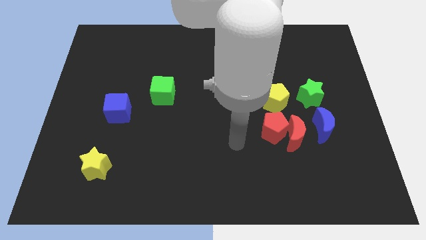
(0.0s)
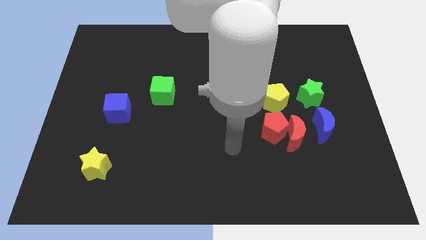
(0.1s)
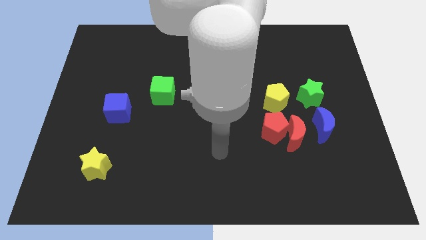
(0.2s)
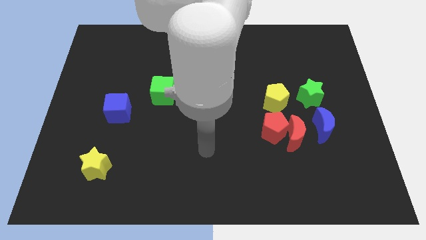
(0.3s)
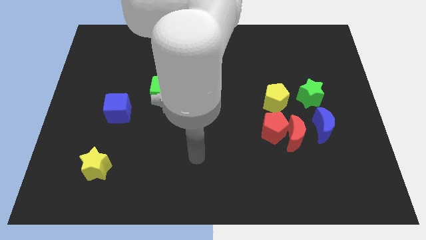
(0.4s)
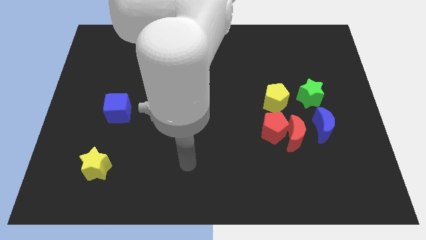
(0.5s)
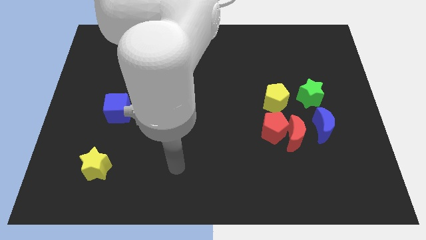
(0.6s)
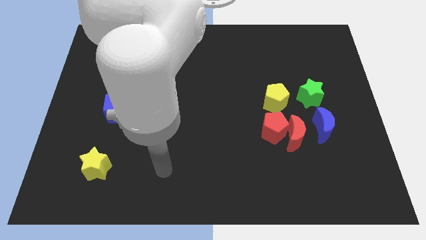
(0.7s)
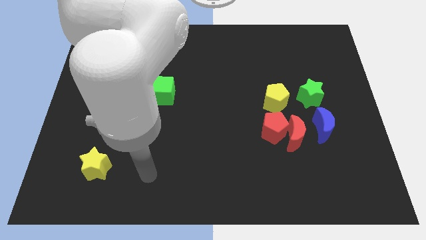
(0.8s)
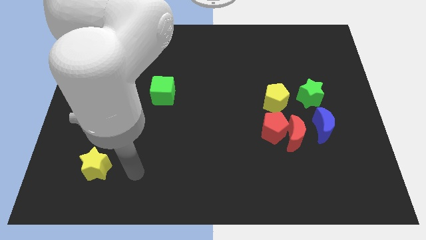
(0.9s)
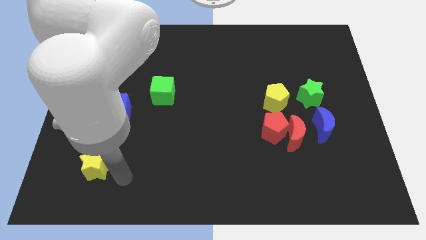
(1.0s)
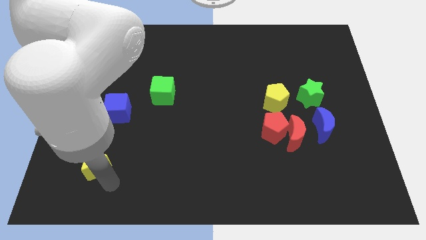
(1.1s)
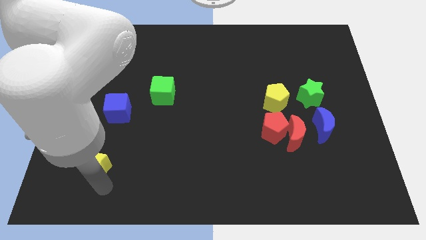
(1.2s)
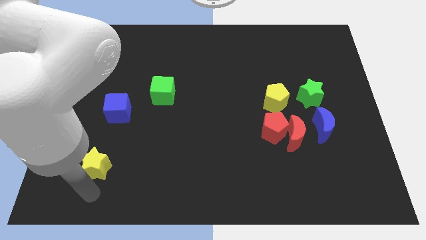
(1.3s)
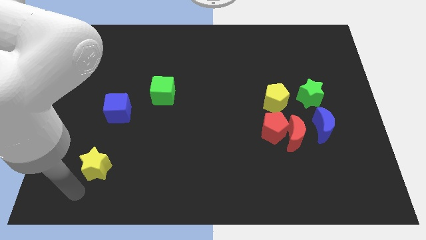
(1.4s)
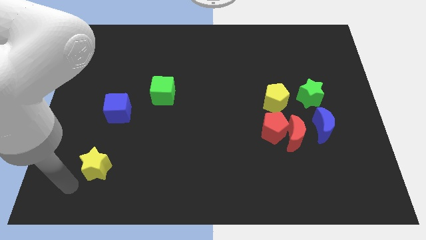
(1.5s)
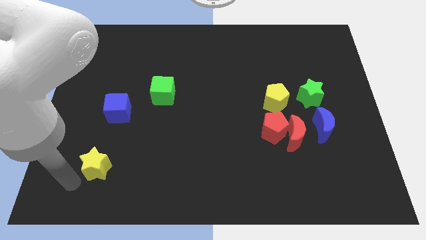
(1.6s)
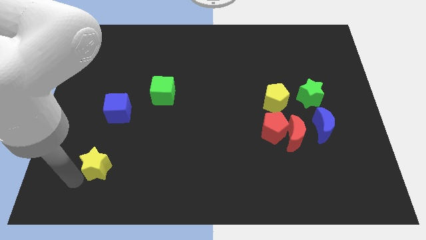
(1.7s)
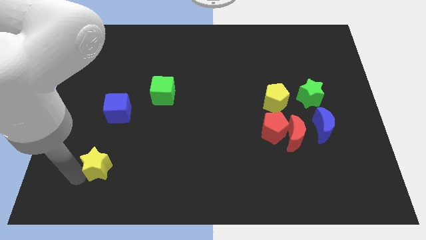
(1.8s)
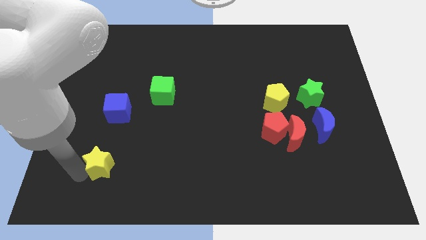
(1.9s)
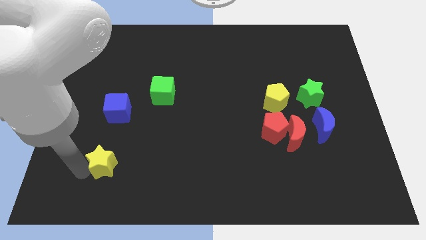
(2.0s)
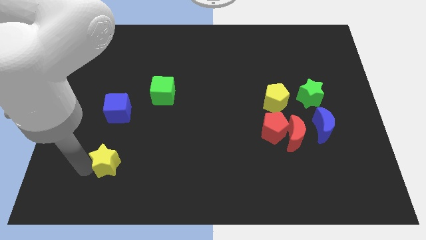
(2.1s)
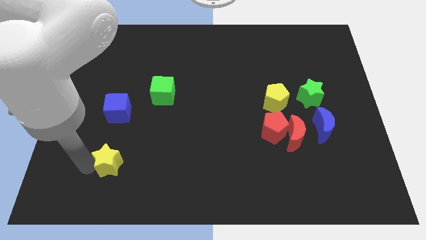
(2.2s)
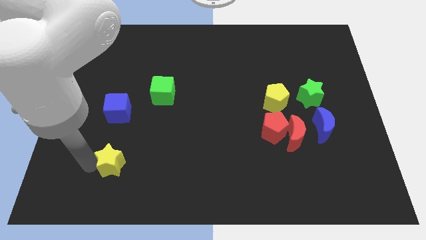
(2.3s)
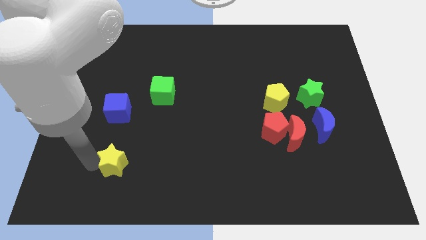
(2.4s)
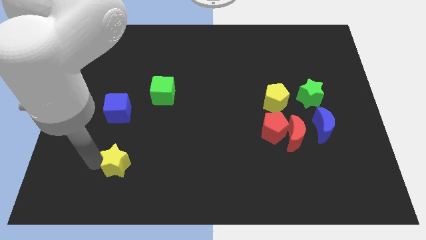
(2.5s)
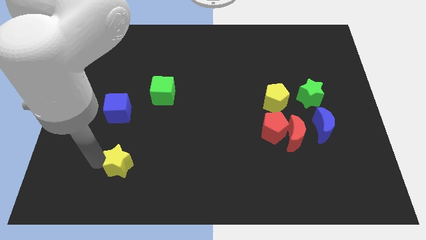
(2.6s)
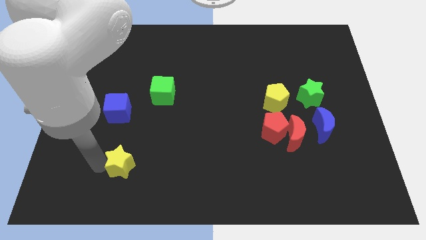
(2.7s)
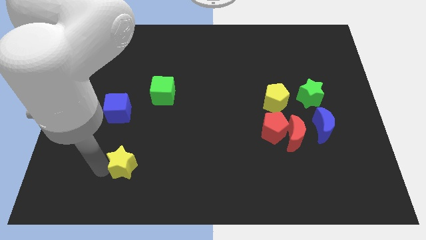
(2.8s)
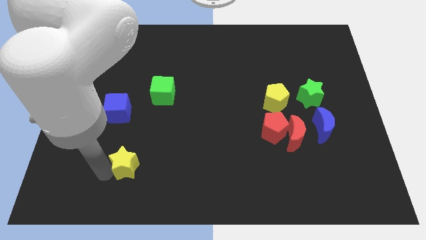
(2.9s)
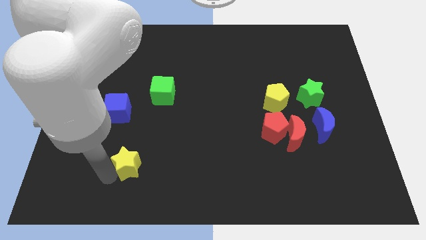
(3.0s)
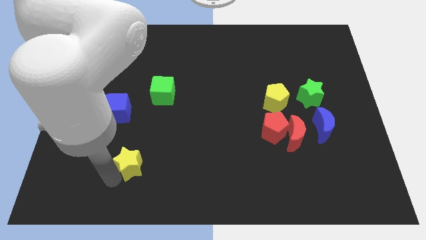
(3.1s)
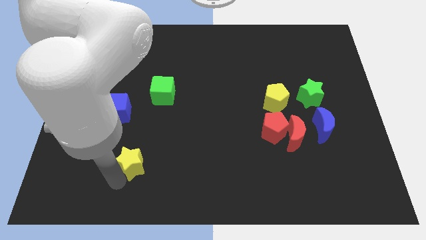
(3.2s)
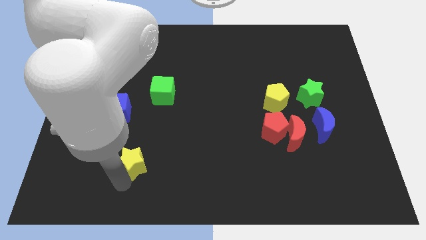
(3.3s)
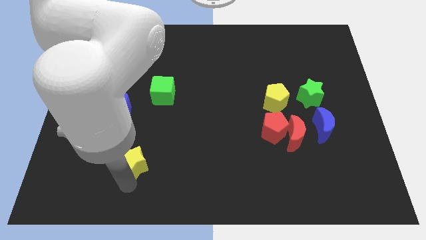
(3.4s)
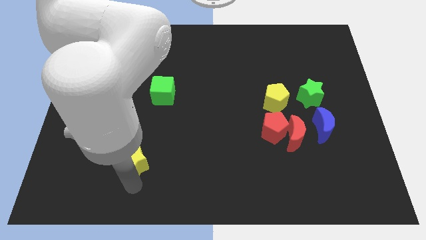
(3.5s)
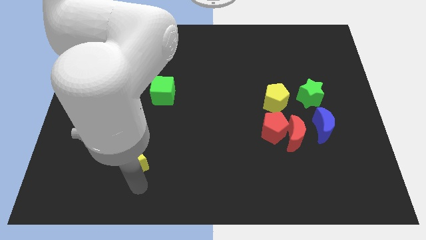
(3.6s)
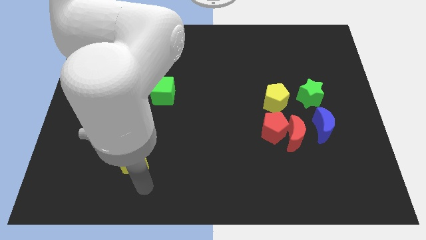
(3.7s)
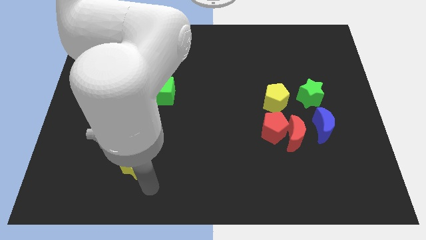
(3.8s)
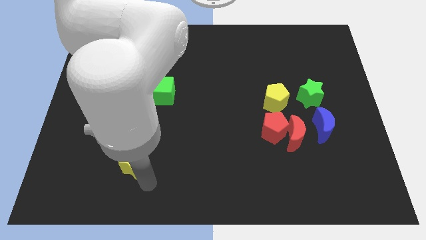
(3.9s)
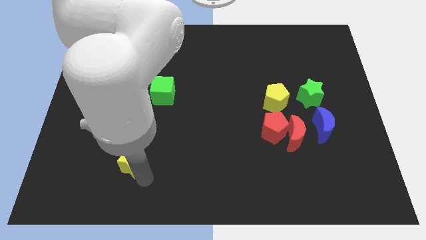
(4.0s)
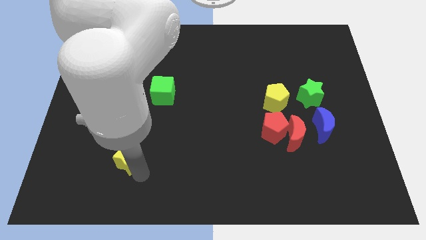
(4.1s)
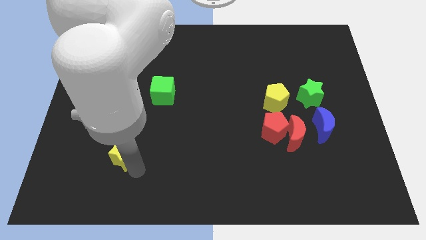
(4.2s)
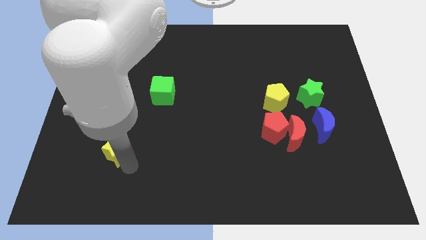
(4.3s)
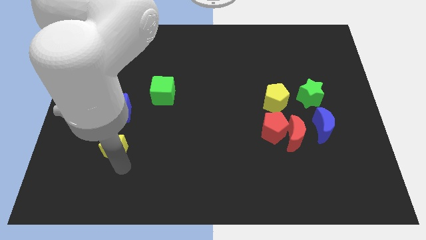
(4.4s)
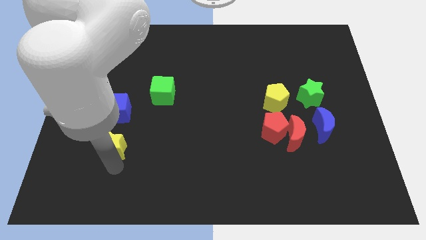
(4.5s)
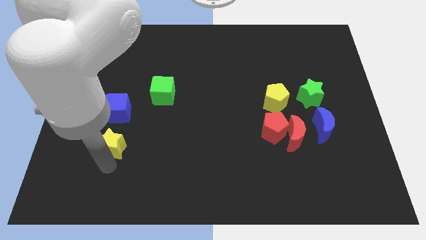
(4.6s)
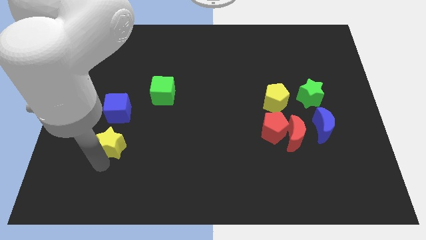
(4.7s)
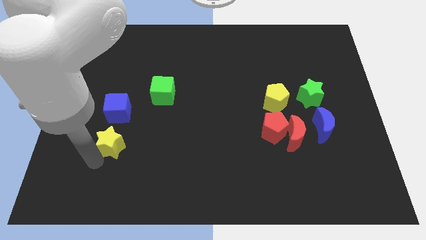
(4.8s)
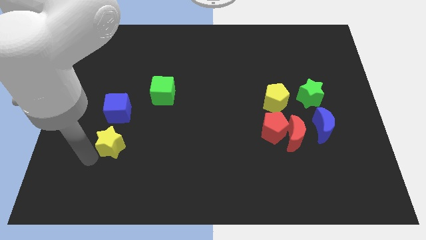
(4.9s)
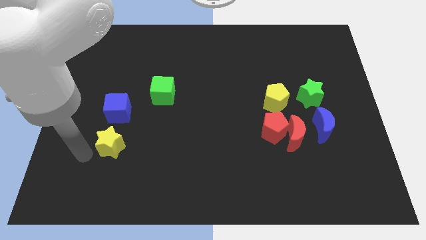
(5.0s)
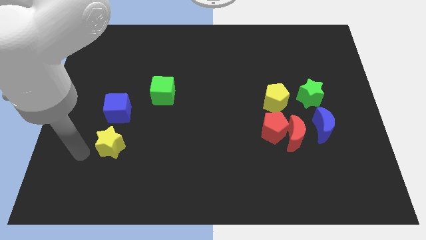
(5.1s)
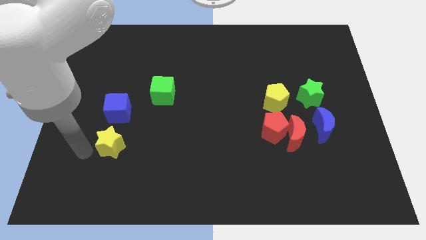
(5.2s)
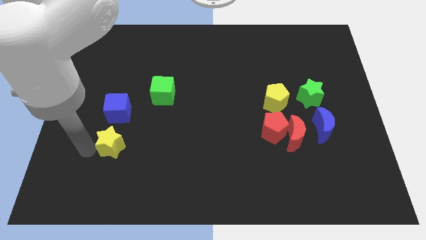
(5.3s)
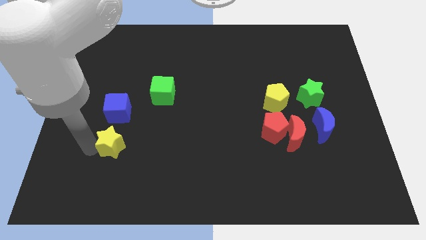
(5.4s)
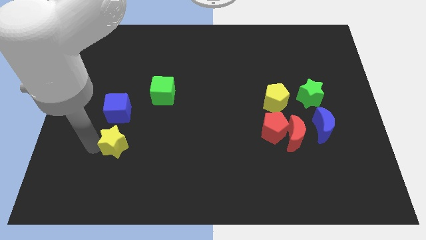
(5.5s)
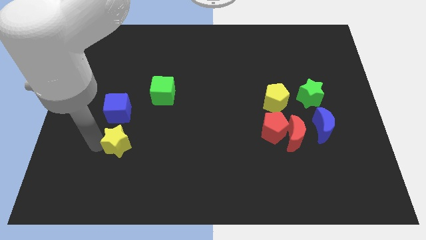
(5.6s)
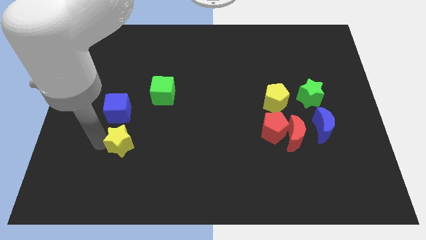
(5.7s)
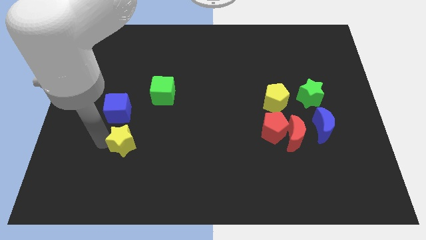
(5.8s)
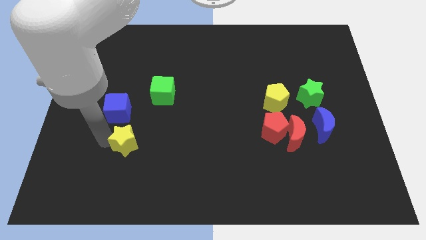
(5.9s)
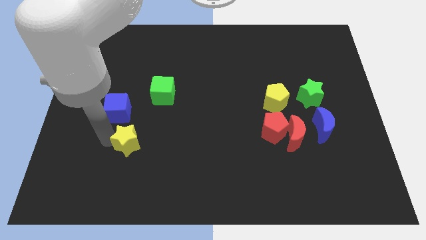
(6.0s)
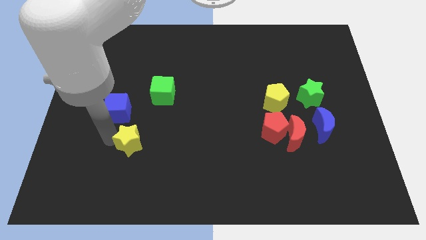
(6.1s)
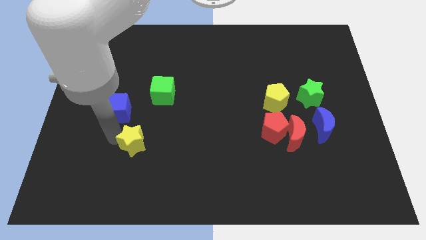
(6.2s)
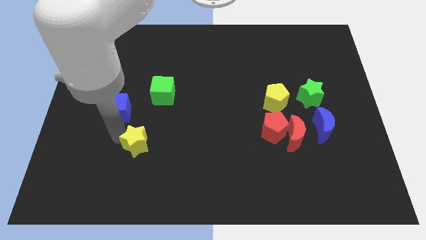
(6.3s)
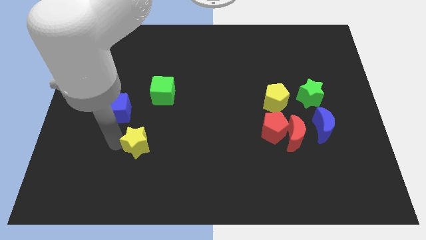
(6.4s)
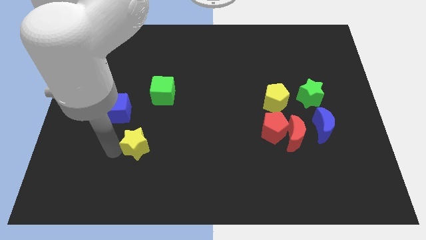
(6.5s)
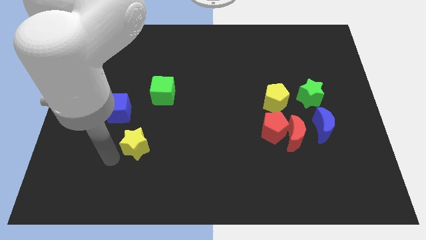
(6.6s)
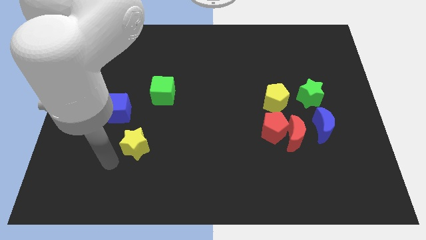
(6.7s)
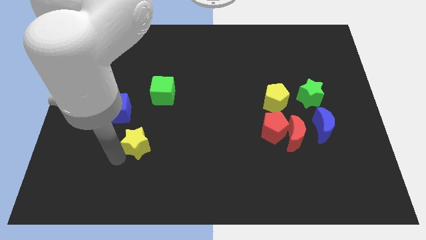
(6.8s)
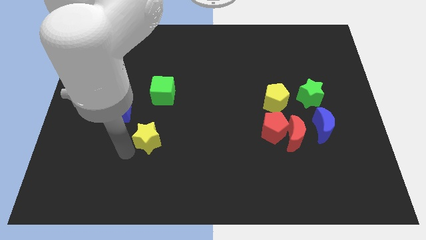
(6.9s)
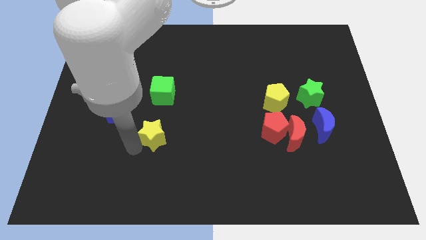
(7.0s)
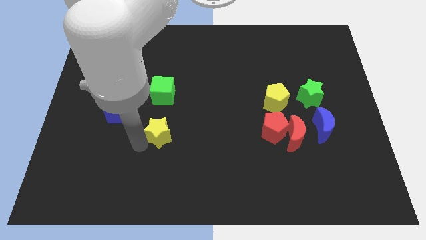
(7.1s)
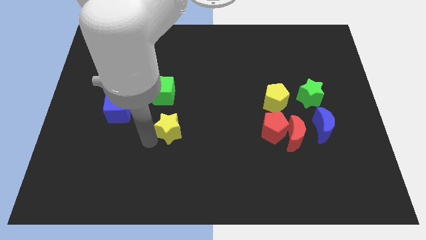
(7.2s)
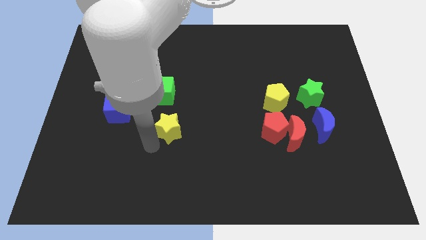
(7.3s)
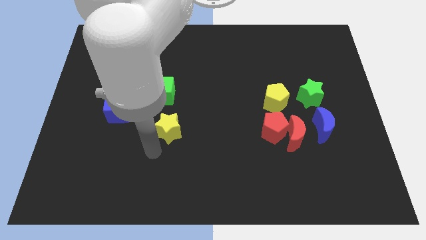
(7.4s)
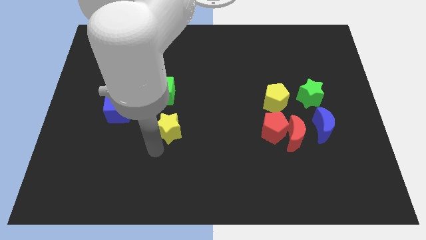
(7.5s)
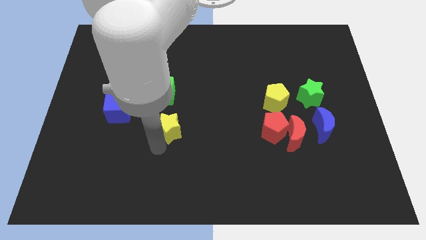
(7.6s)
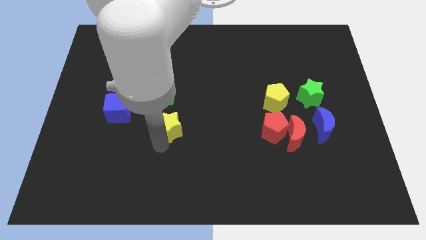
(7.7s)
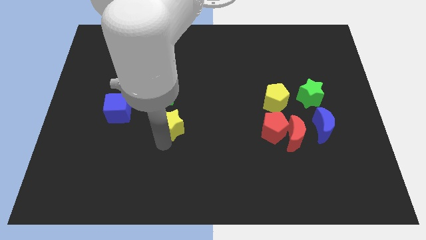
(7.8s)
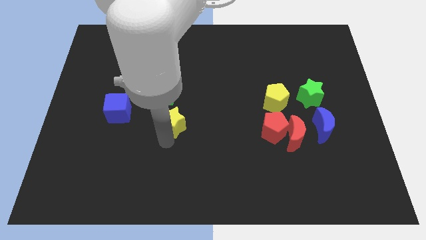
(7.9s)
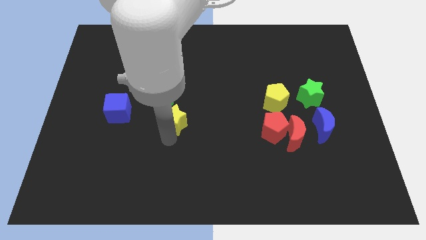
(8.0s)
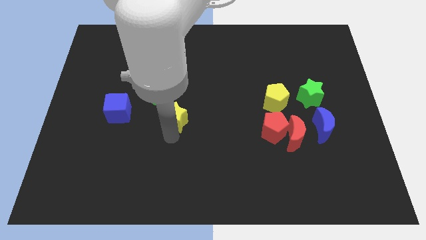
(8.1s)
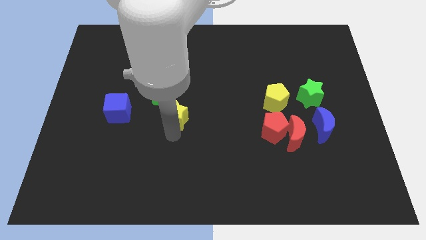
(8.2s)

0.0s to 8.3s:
slide the yellow star upwards and then to the right

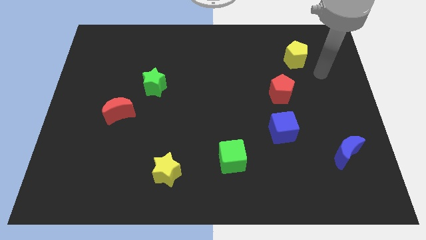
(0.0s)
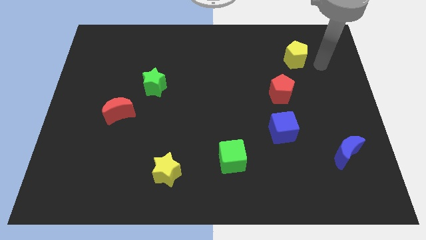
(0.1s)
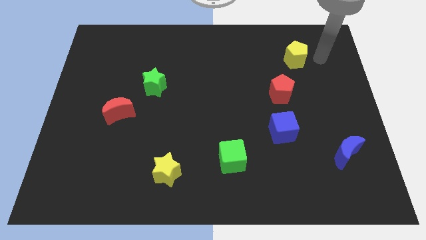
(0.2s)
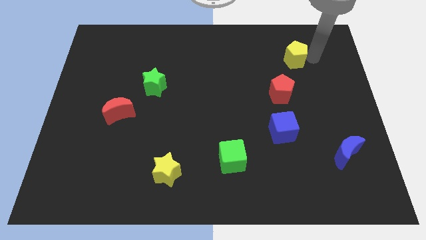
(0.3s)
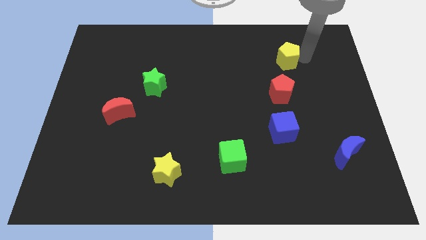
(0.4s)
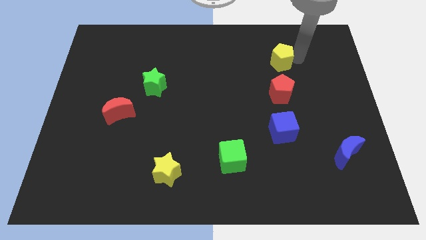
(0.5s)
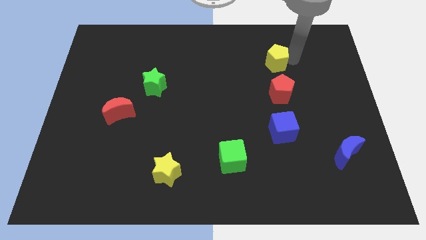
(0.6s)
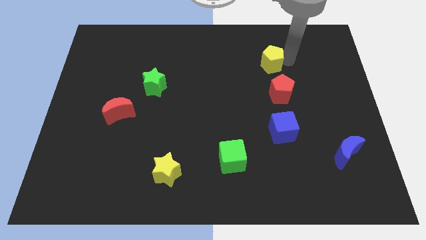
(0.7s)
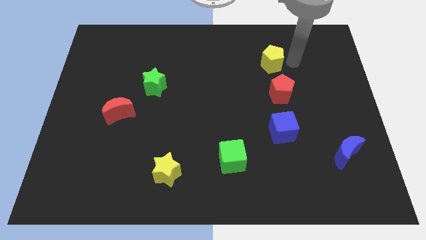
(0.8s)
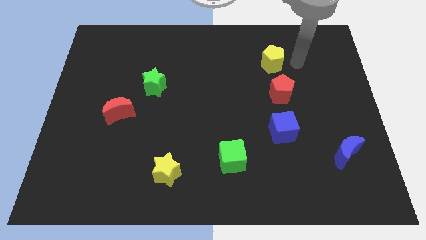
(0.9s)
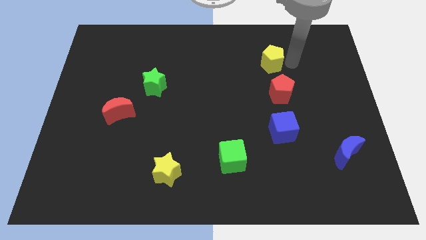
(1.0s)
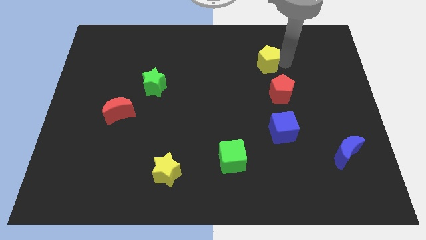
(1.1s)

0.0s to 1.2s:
slightly push the yellow pentagon to the left
